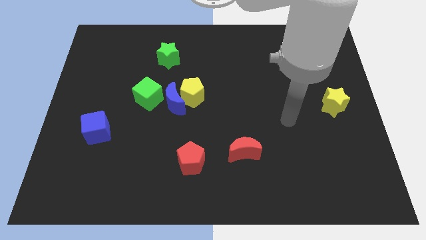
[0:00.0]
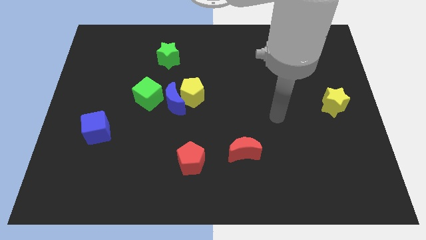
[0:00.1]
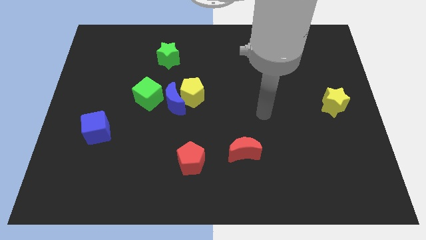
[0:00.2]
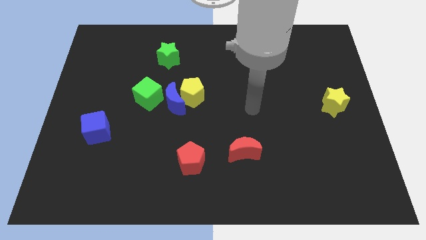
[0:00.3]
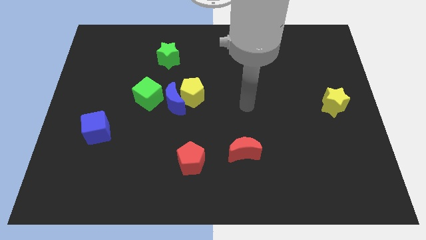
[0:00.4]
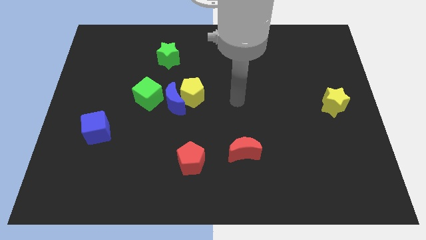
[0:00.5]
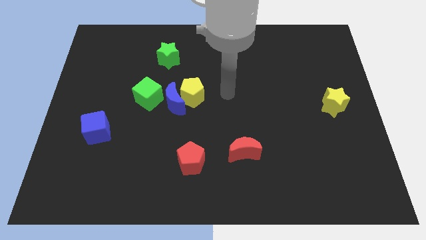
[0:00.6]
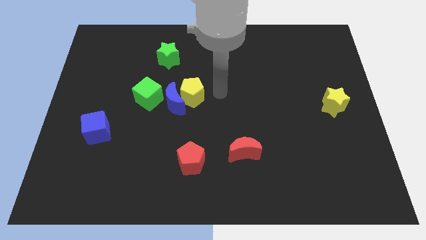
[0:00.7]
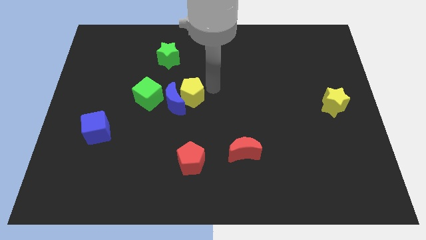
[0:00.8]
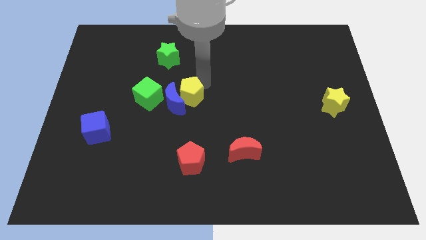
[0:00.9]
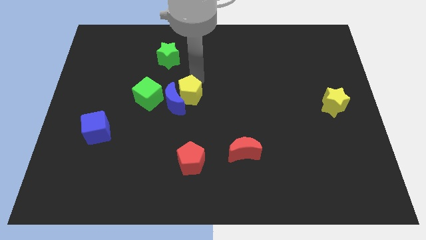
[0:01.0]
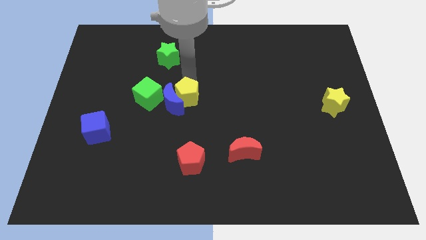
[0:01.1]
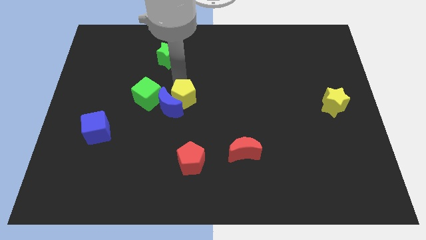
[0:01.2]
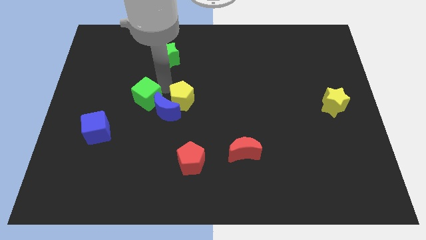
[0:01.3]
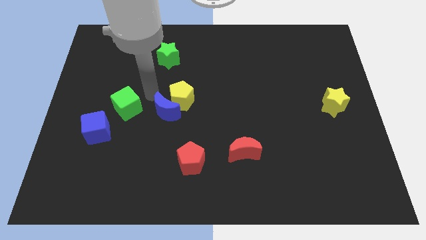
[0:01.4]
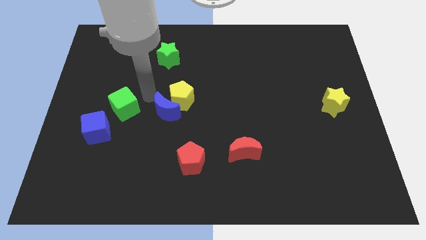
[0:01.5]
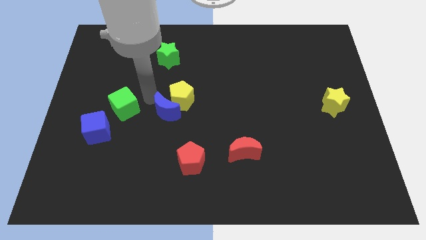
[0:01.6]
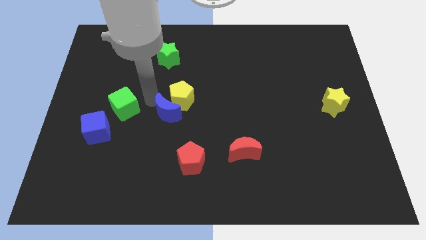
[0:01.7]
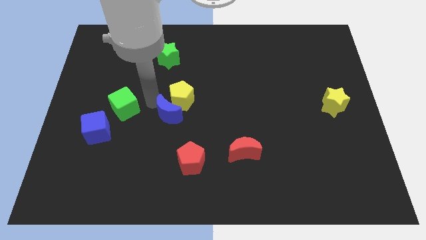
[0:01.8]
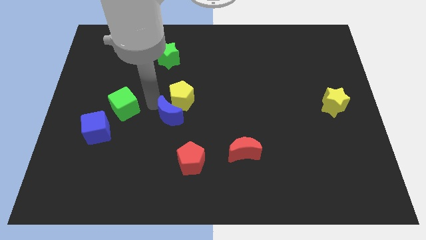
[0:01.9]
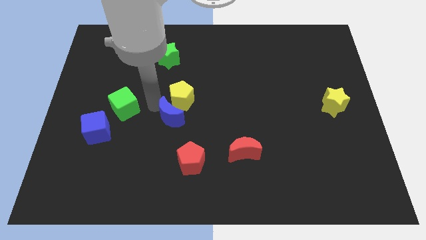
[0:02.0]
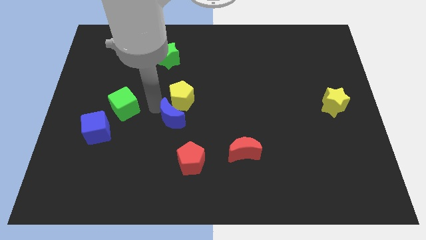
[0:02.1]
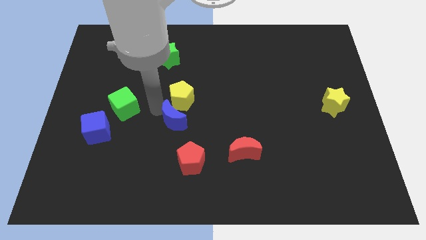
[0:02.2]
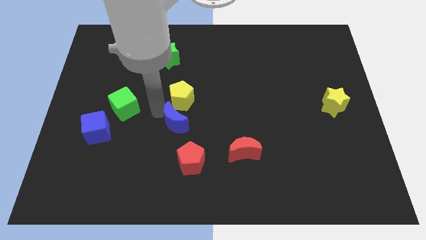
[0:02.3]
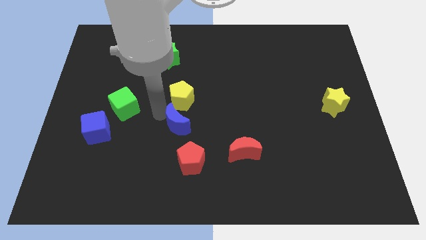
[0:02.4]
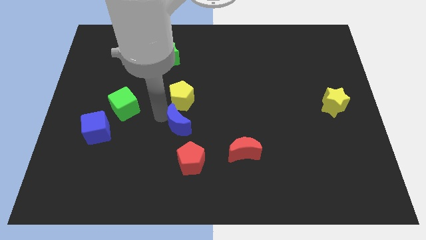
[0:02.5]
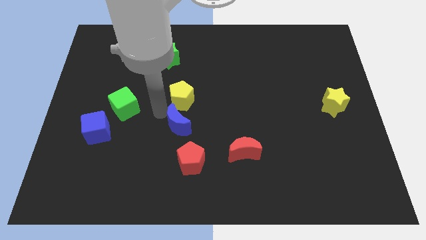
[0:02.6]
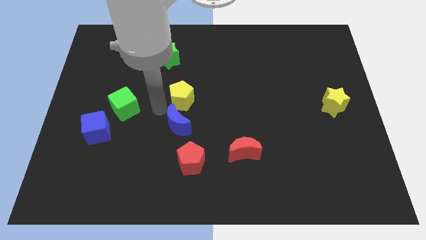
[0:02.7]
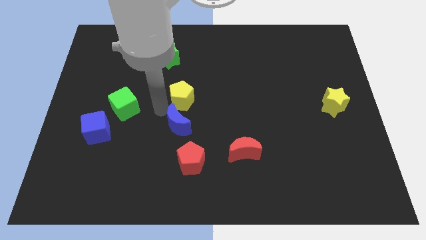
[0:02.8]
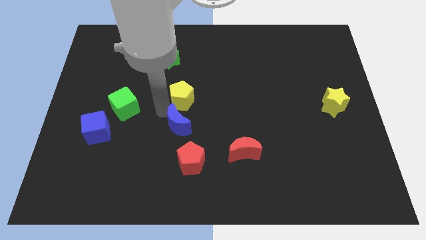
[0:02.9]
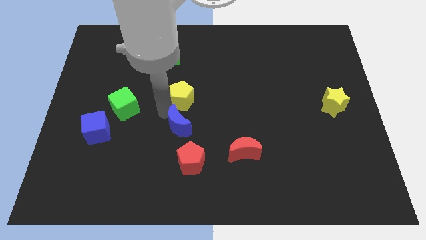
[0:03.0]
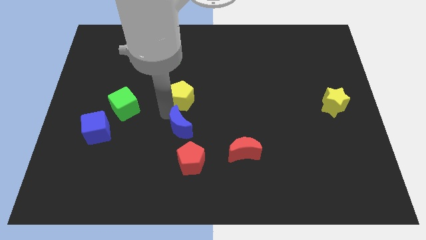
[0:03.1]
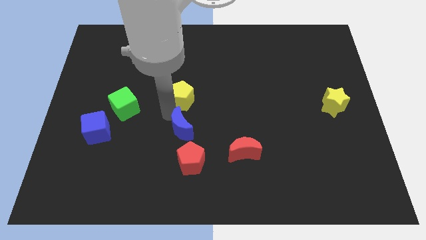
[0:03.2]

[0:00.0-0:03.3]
move the blue moon away from the yellow pentagon and green cube

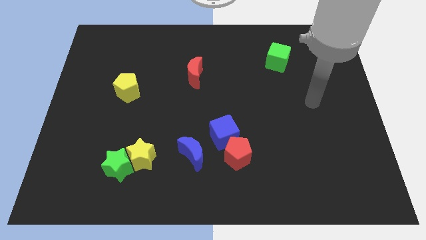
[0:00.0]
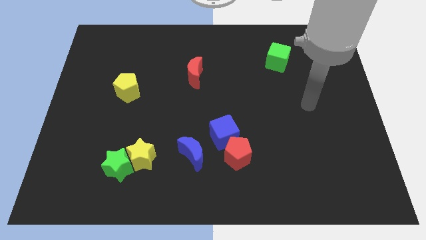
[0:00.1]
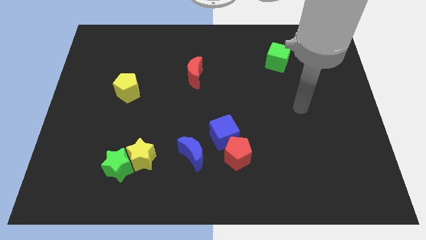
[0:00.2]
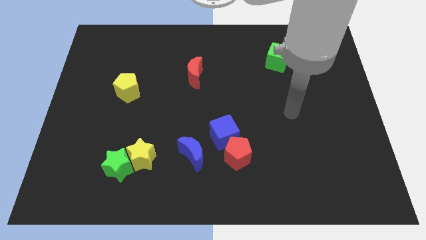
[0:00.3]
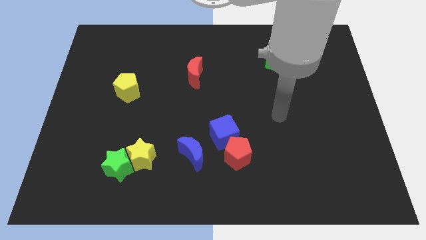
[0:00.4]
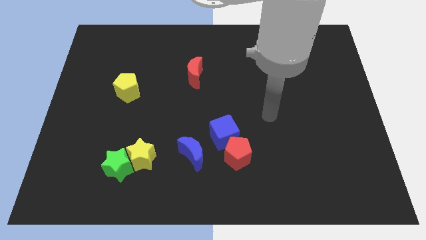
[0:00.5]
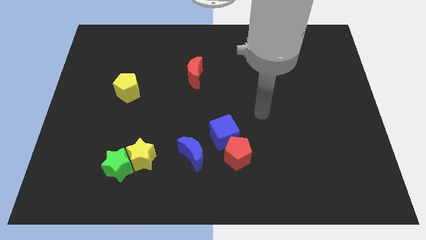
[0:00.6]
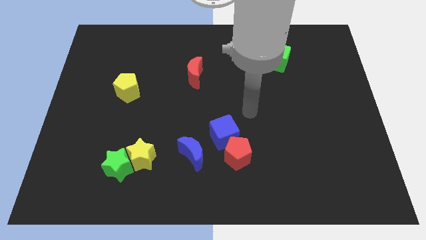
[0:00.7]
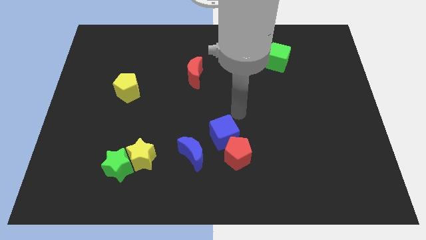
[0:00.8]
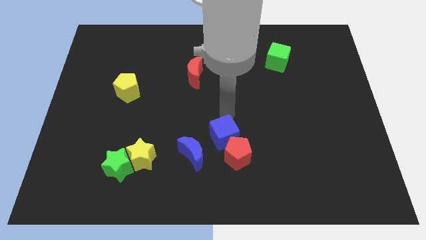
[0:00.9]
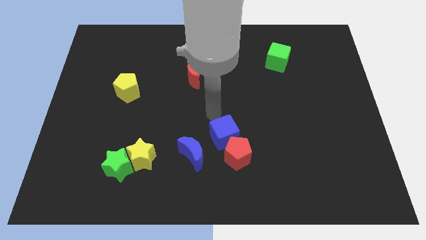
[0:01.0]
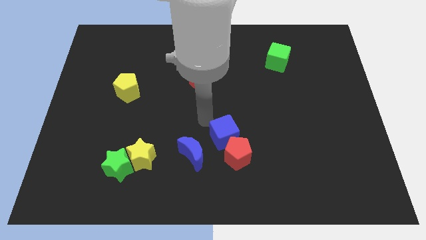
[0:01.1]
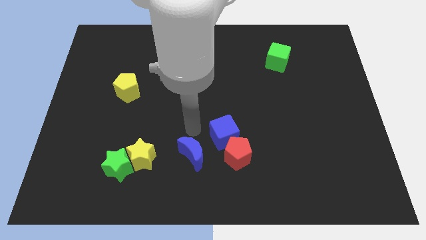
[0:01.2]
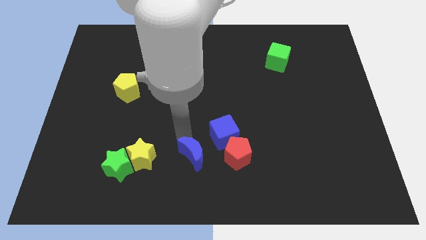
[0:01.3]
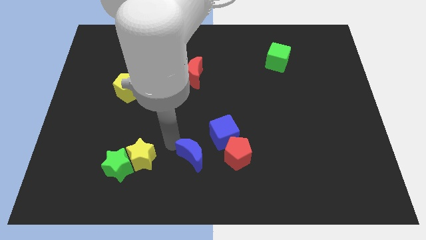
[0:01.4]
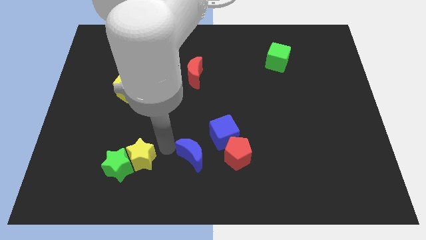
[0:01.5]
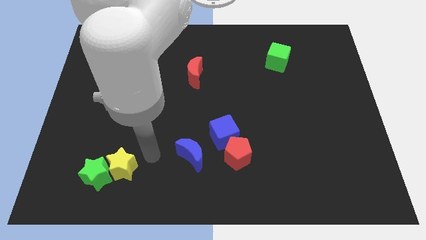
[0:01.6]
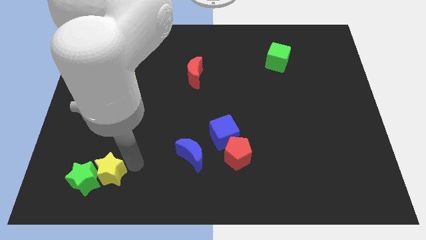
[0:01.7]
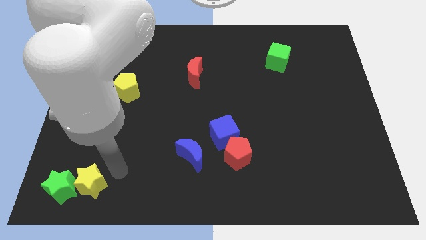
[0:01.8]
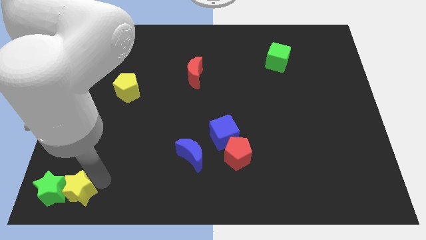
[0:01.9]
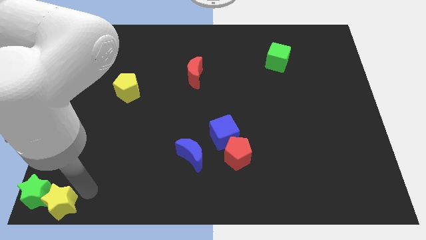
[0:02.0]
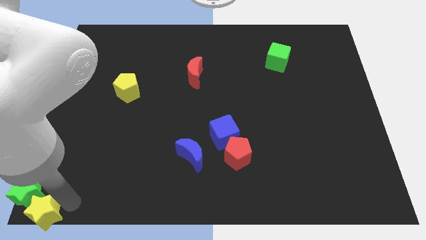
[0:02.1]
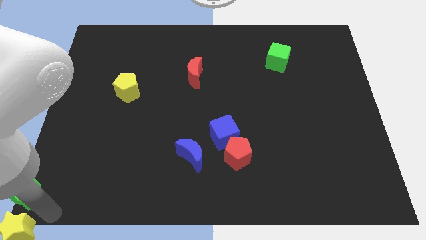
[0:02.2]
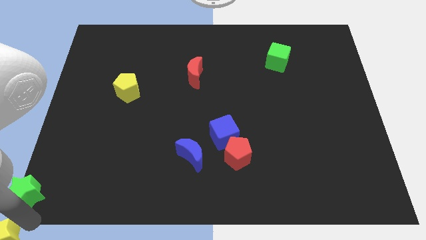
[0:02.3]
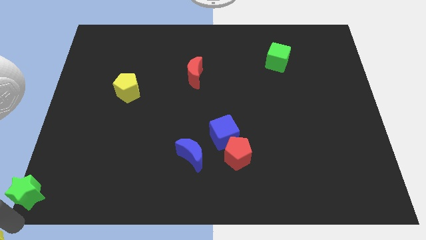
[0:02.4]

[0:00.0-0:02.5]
separate the green star from the yellow star

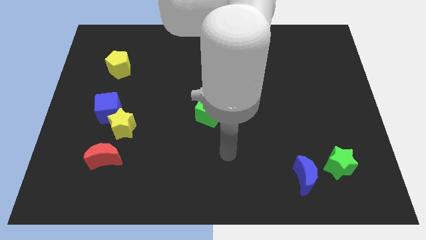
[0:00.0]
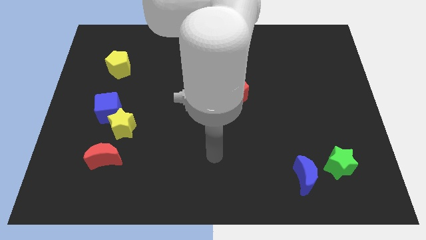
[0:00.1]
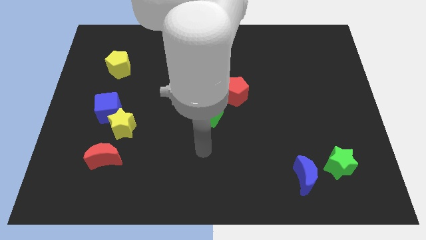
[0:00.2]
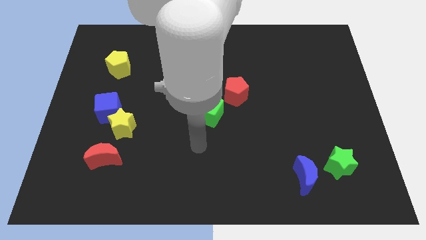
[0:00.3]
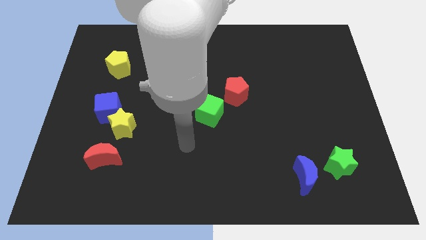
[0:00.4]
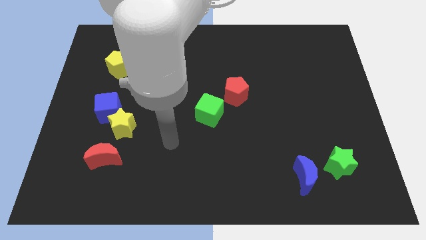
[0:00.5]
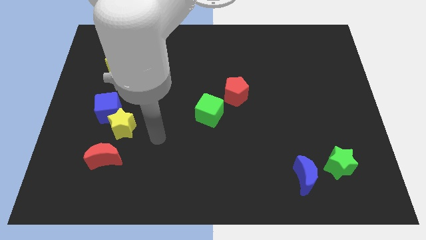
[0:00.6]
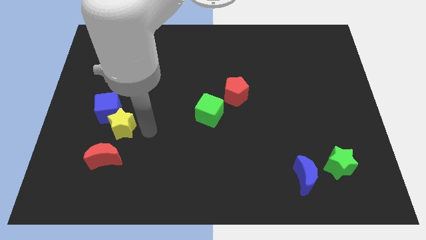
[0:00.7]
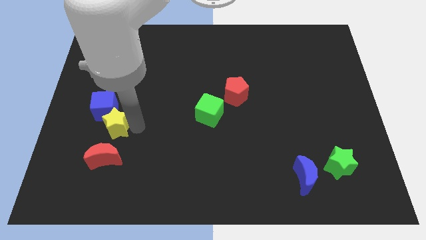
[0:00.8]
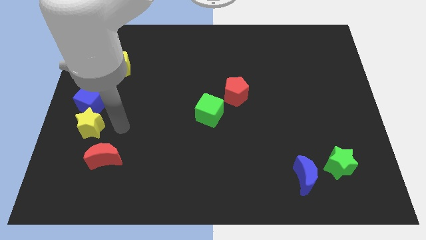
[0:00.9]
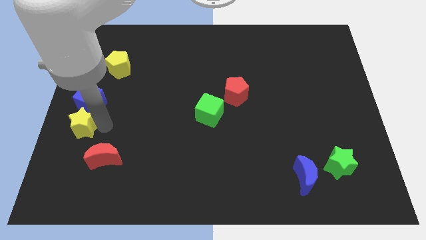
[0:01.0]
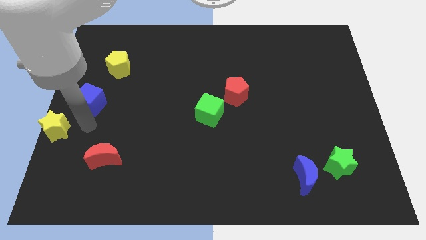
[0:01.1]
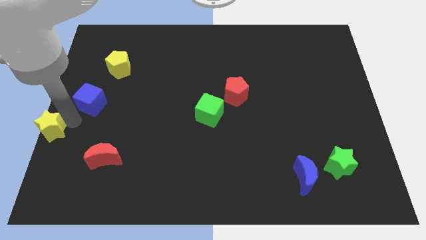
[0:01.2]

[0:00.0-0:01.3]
separate the blue cube from the yellow star

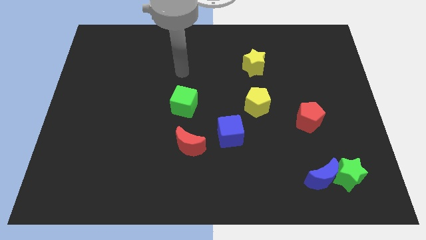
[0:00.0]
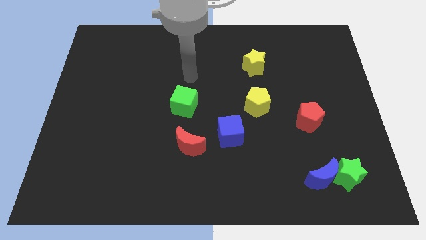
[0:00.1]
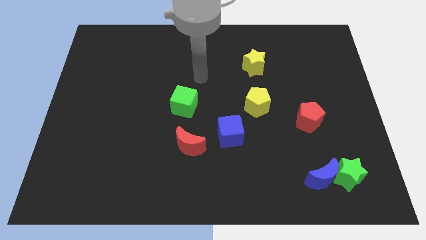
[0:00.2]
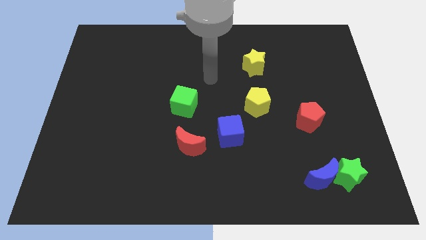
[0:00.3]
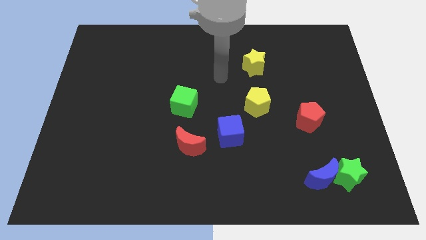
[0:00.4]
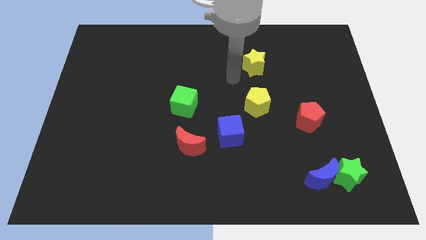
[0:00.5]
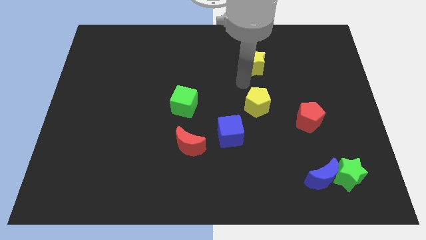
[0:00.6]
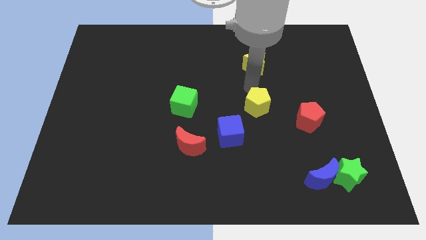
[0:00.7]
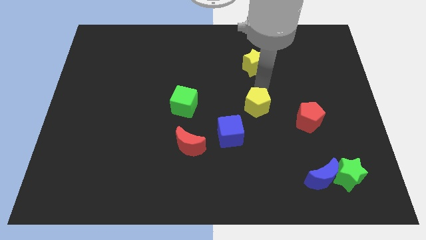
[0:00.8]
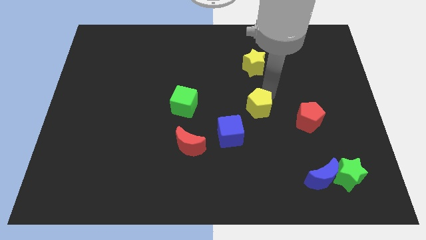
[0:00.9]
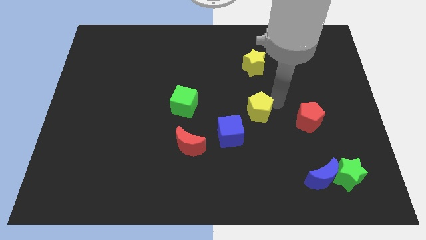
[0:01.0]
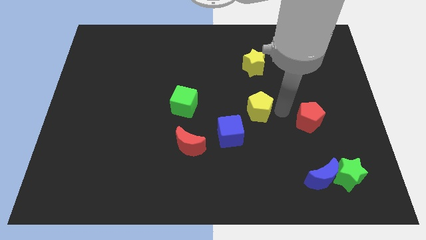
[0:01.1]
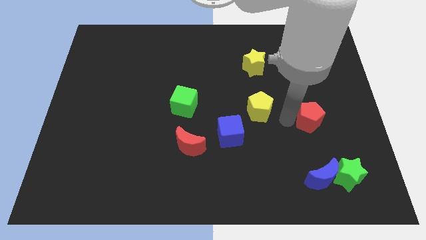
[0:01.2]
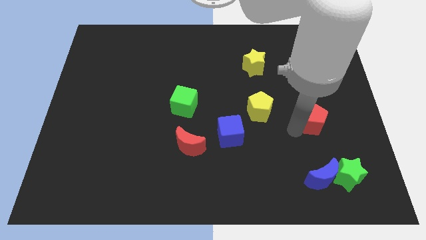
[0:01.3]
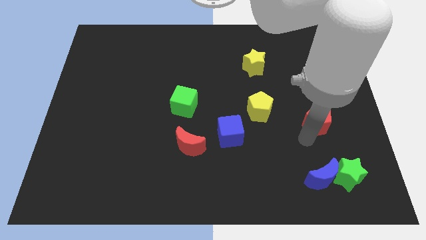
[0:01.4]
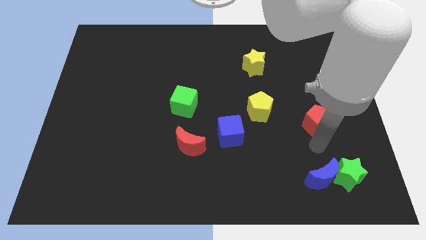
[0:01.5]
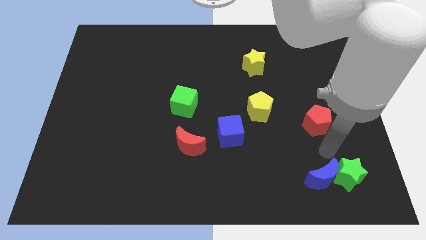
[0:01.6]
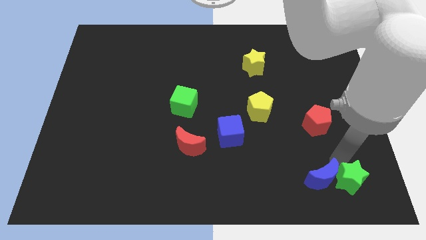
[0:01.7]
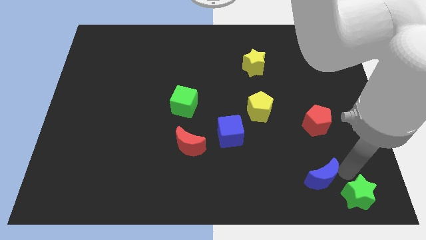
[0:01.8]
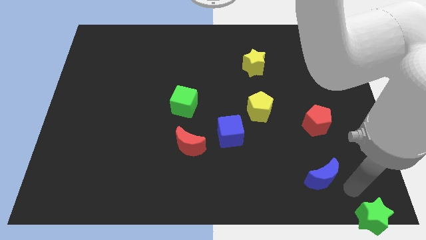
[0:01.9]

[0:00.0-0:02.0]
pull the blue moon apart from the green star

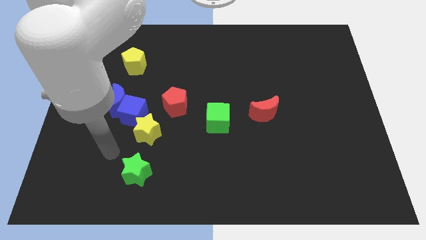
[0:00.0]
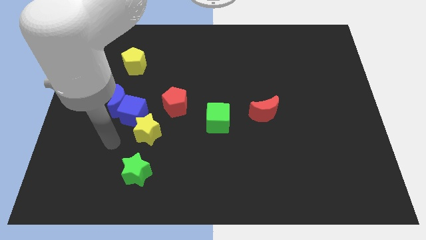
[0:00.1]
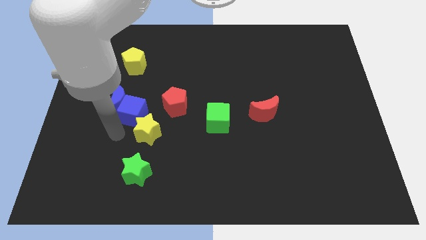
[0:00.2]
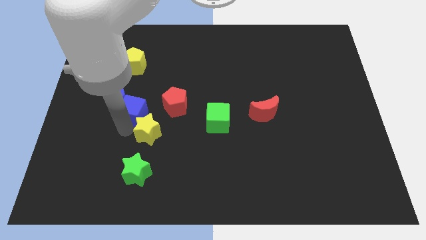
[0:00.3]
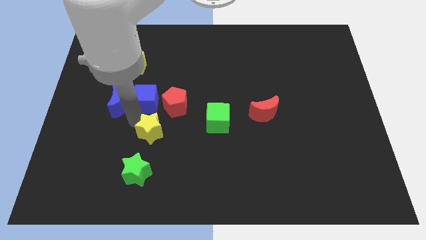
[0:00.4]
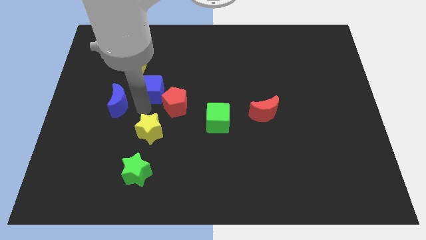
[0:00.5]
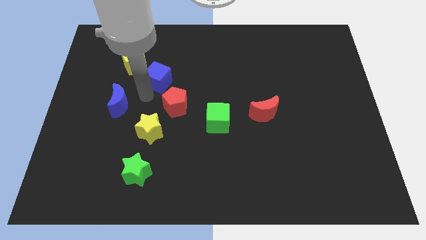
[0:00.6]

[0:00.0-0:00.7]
separate the blue moon from the blue cube
